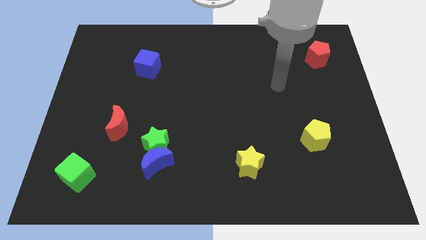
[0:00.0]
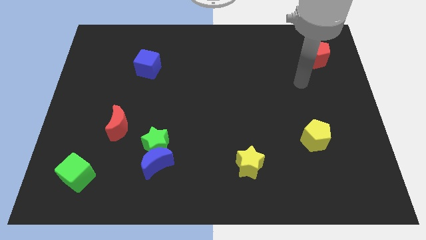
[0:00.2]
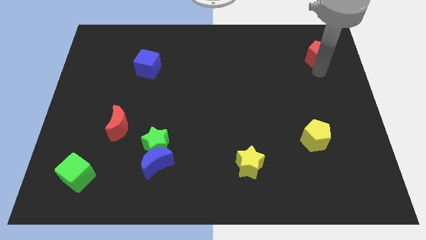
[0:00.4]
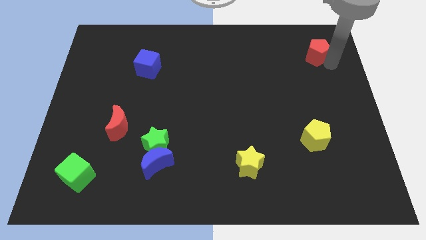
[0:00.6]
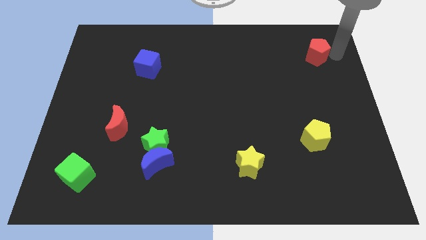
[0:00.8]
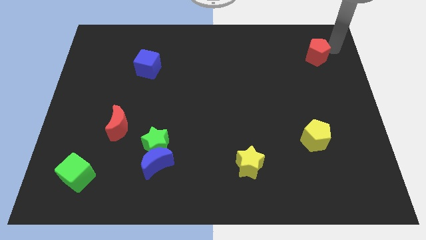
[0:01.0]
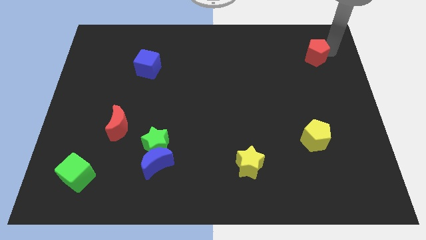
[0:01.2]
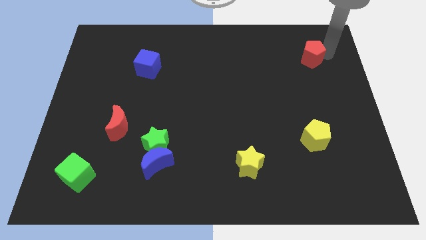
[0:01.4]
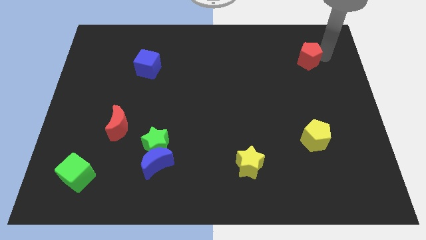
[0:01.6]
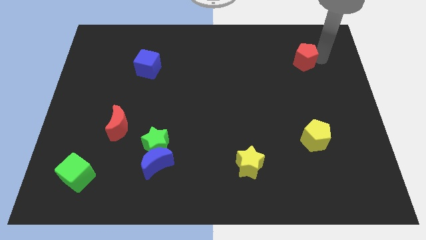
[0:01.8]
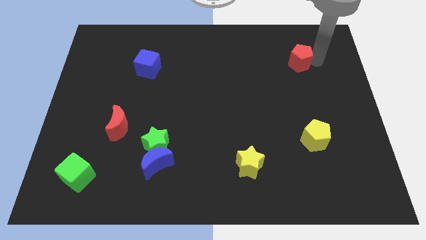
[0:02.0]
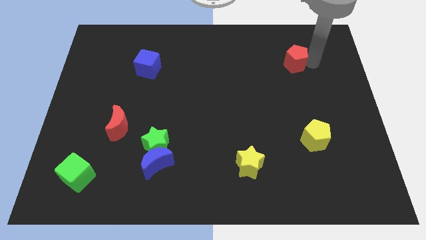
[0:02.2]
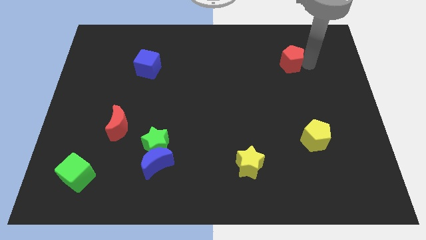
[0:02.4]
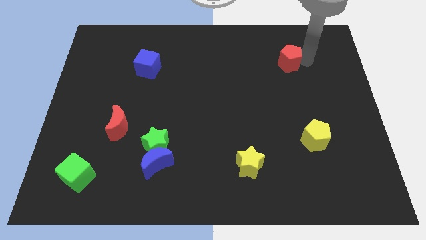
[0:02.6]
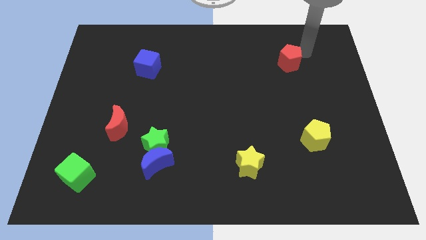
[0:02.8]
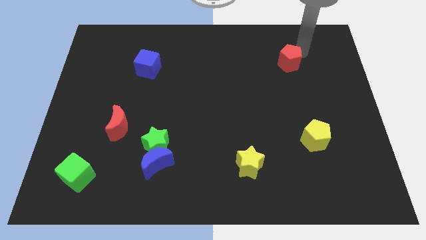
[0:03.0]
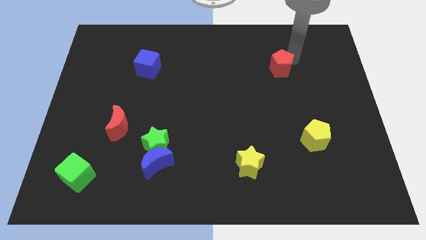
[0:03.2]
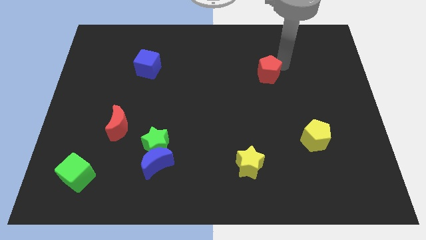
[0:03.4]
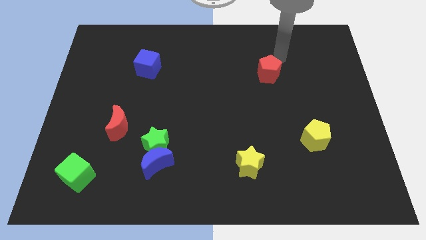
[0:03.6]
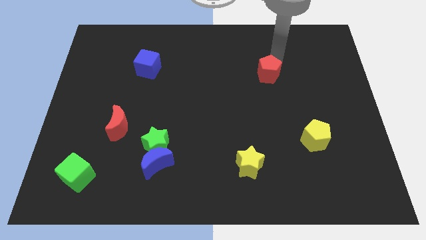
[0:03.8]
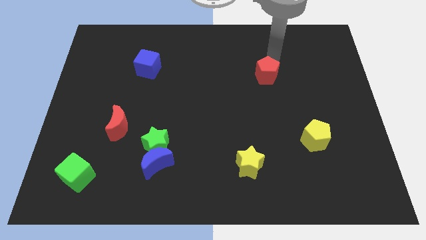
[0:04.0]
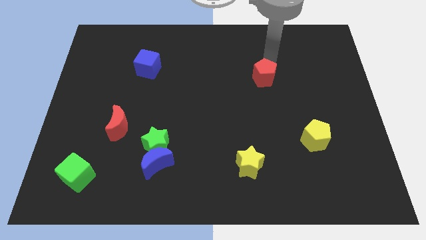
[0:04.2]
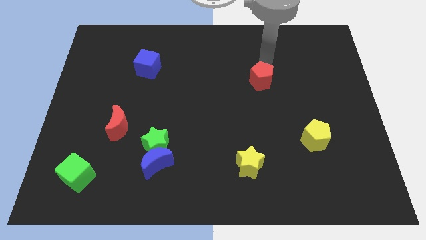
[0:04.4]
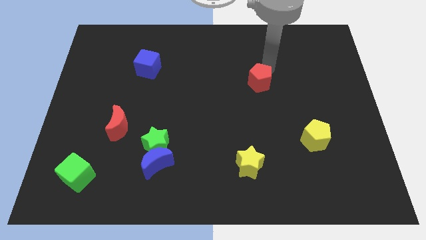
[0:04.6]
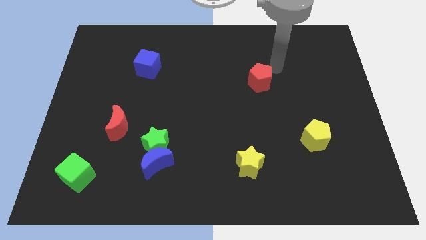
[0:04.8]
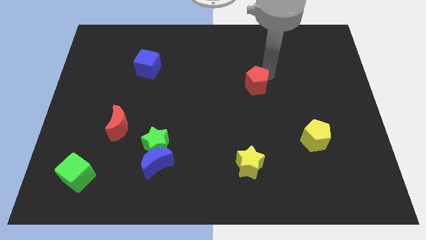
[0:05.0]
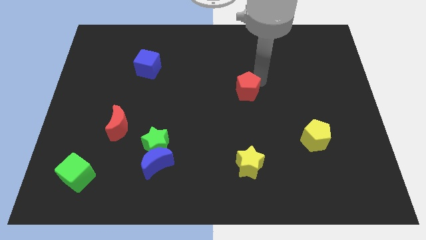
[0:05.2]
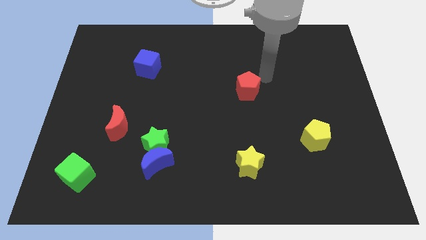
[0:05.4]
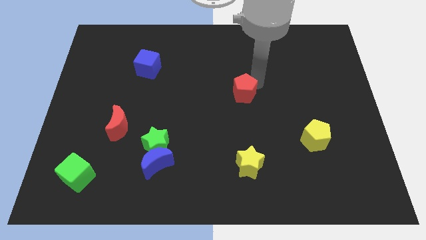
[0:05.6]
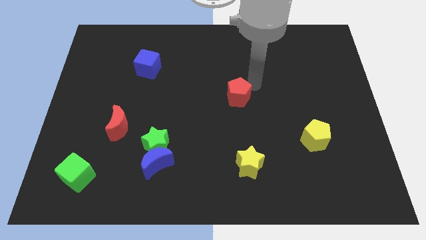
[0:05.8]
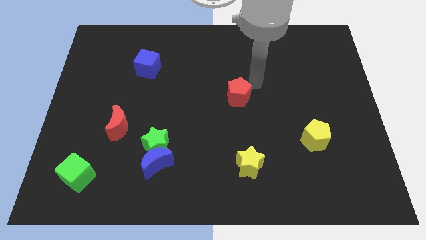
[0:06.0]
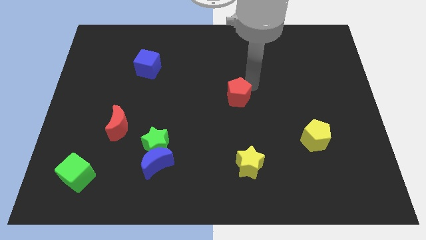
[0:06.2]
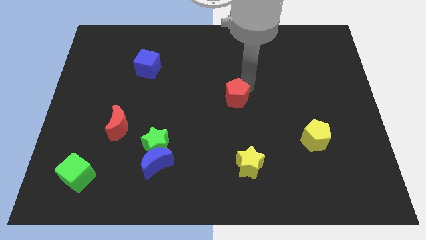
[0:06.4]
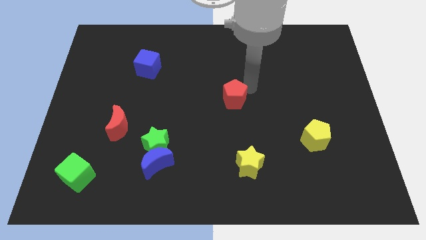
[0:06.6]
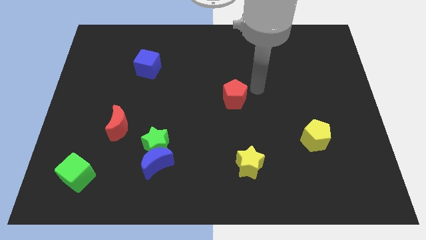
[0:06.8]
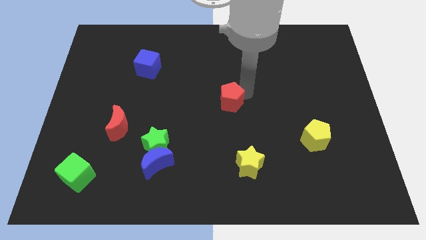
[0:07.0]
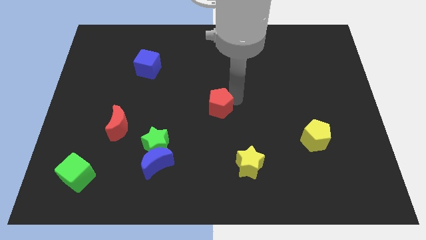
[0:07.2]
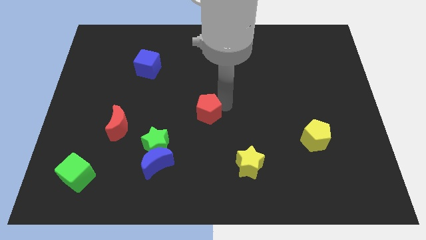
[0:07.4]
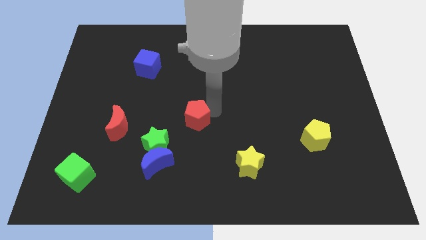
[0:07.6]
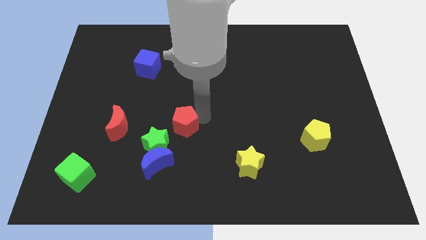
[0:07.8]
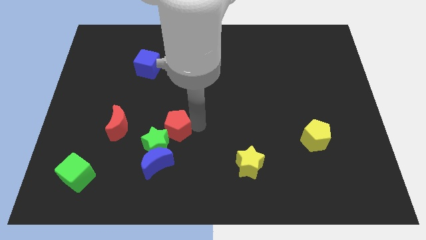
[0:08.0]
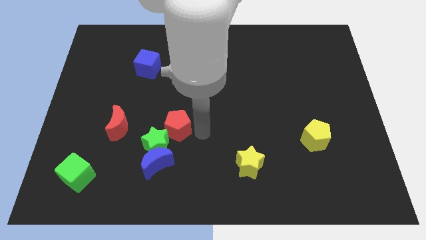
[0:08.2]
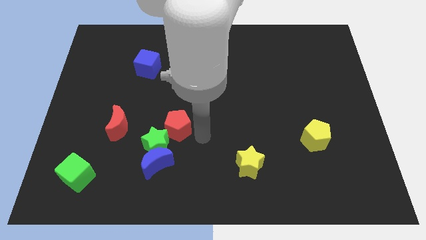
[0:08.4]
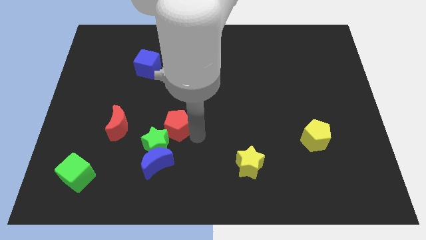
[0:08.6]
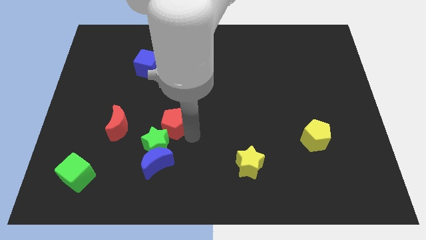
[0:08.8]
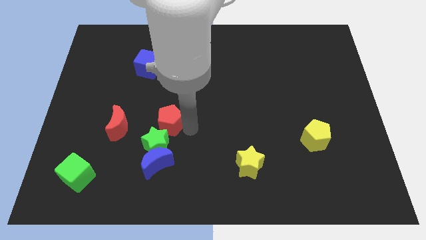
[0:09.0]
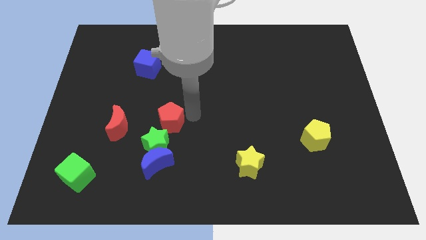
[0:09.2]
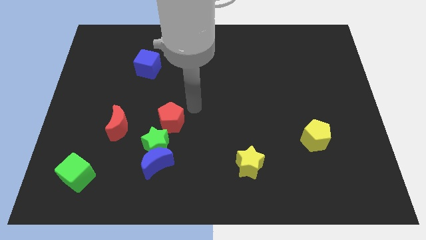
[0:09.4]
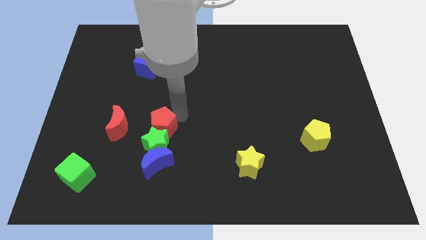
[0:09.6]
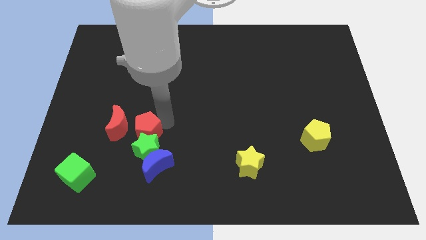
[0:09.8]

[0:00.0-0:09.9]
push the red pentagon diagonally up and to the left of the blue moon

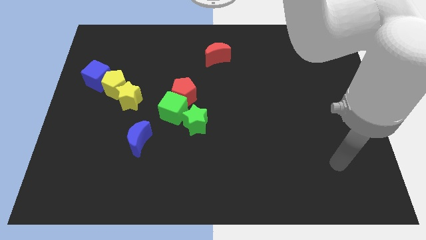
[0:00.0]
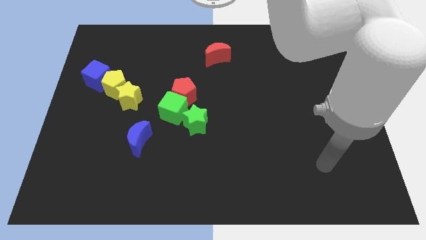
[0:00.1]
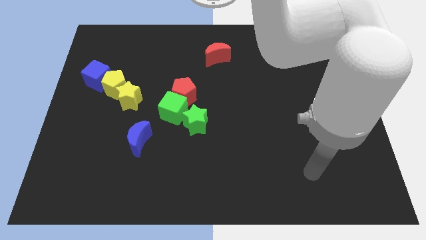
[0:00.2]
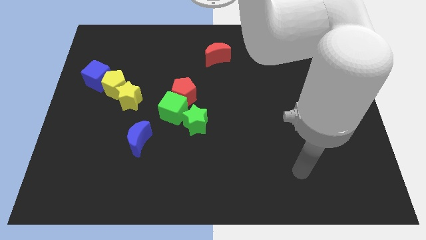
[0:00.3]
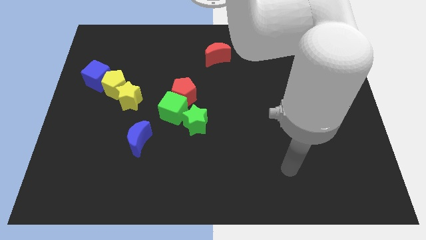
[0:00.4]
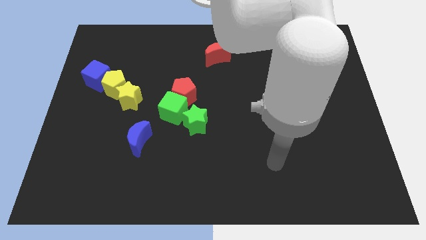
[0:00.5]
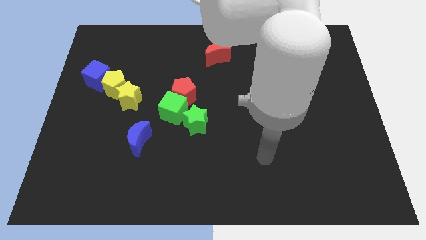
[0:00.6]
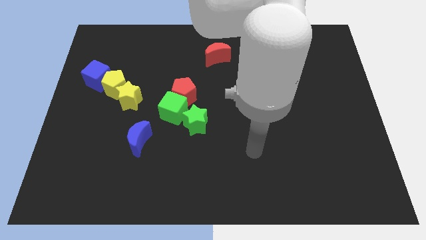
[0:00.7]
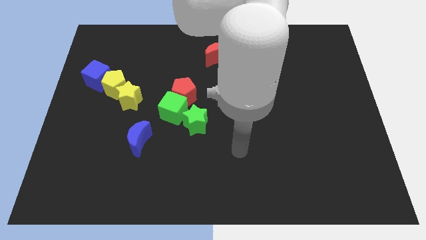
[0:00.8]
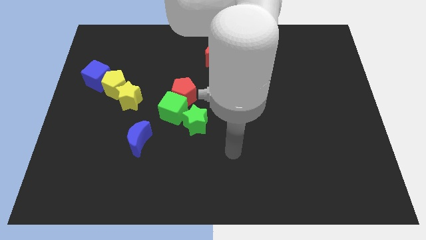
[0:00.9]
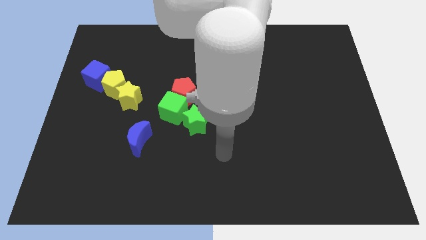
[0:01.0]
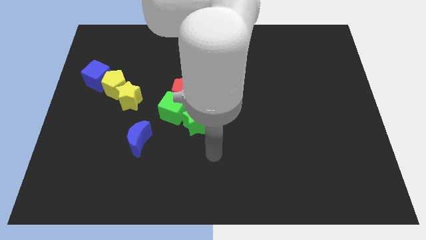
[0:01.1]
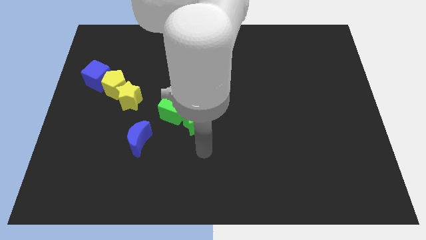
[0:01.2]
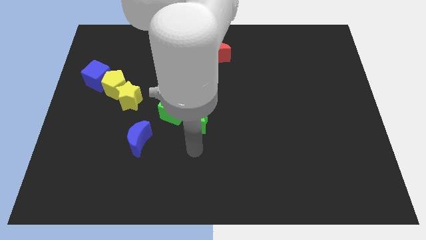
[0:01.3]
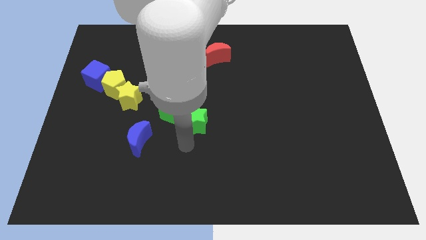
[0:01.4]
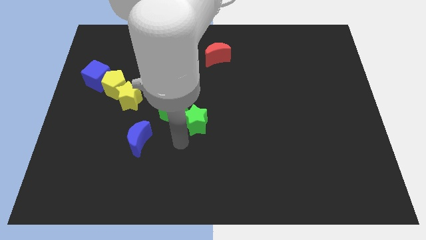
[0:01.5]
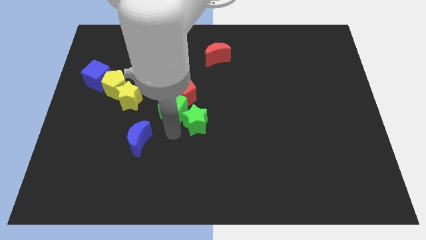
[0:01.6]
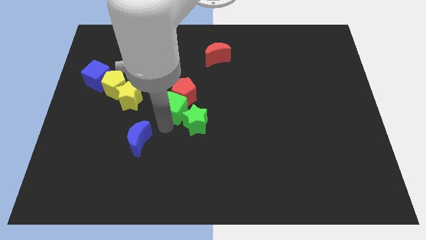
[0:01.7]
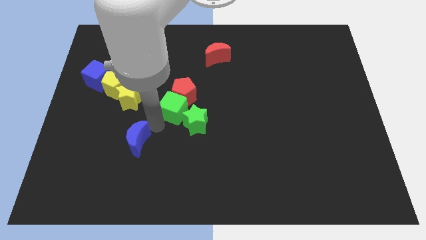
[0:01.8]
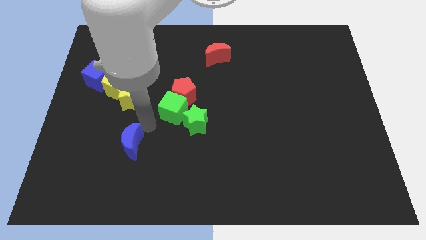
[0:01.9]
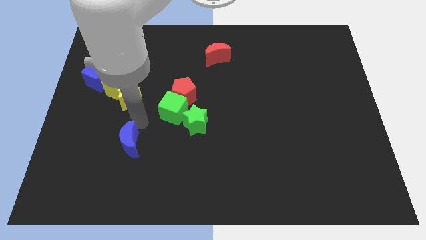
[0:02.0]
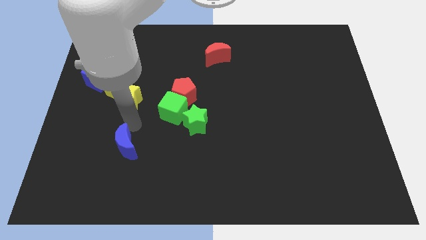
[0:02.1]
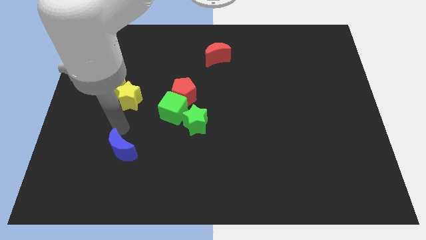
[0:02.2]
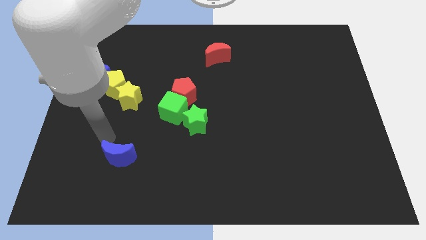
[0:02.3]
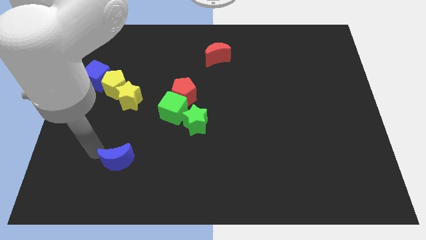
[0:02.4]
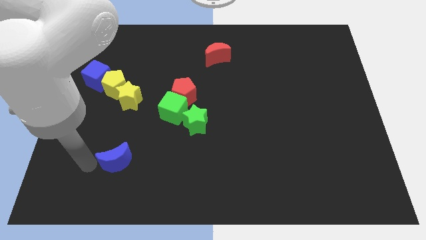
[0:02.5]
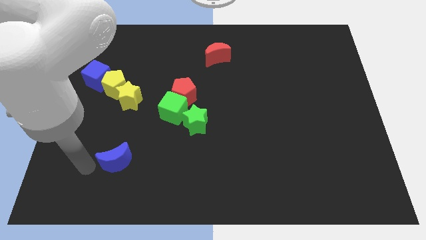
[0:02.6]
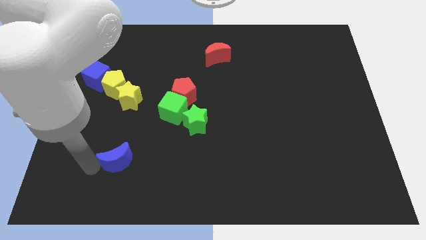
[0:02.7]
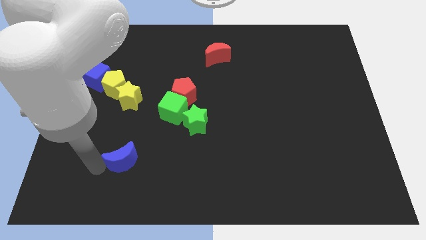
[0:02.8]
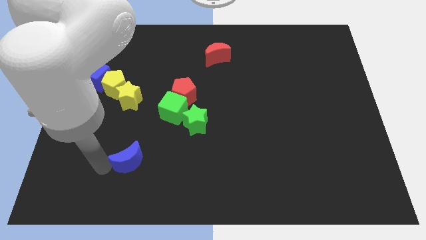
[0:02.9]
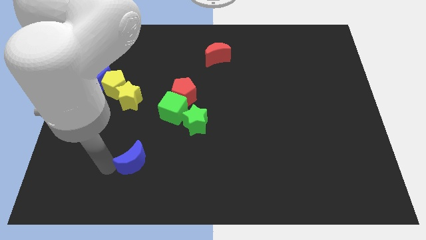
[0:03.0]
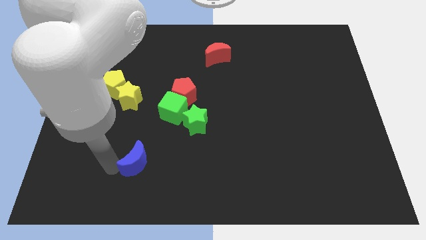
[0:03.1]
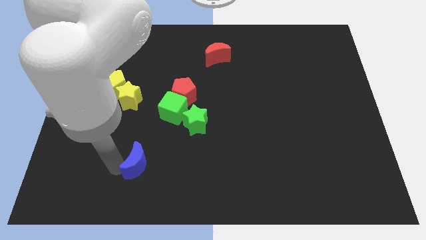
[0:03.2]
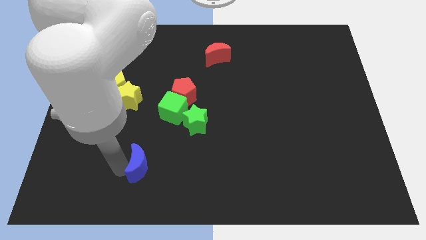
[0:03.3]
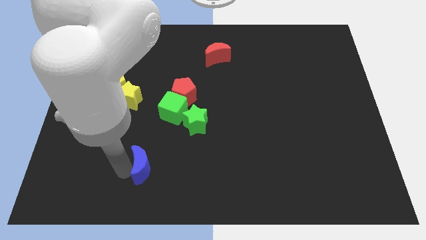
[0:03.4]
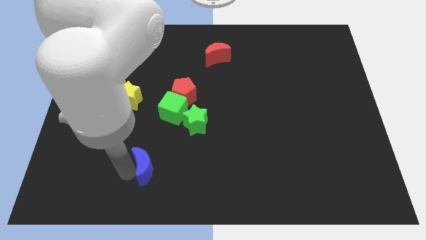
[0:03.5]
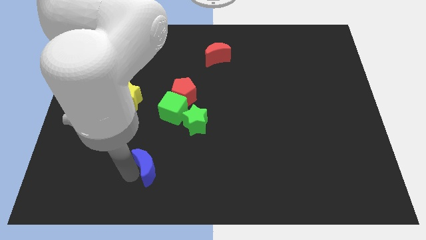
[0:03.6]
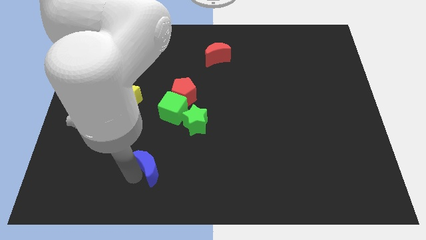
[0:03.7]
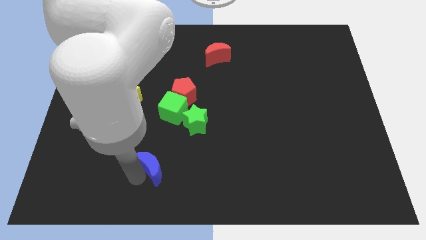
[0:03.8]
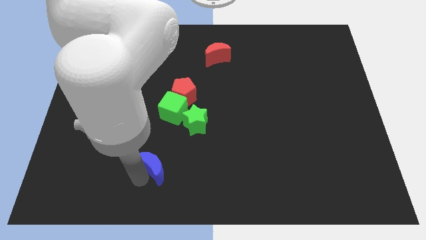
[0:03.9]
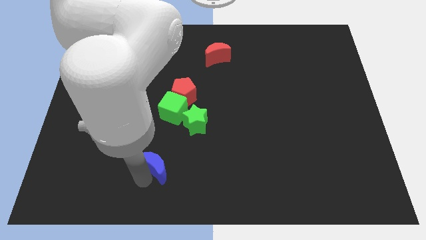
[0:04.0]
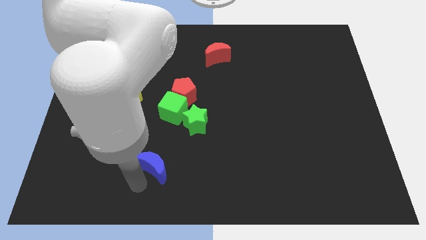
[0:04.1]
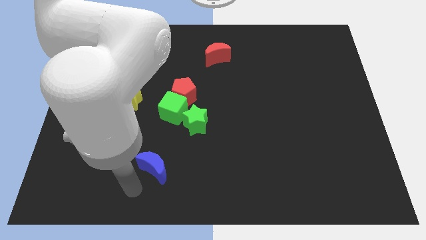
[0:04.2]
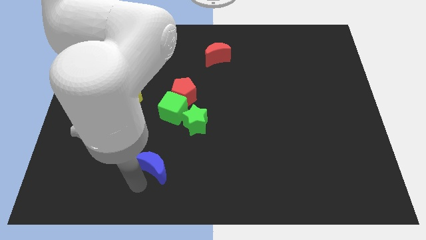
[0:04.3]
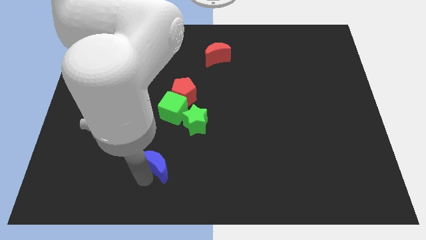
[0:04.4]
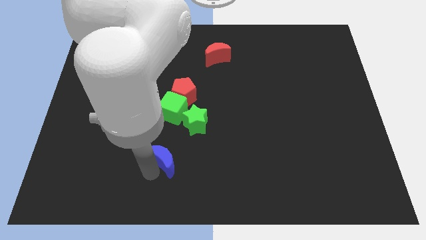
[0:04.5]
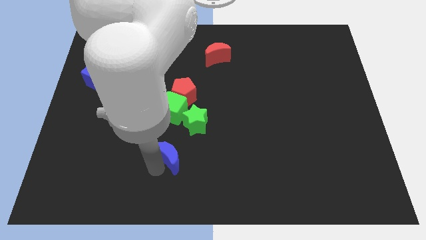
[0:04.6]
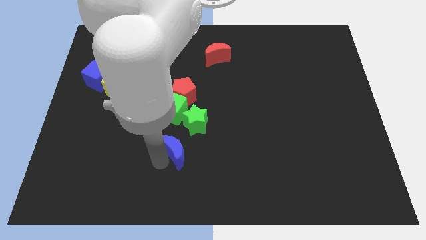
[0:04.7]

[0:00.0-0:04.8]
slide the blue moon to the bottom of the green star
